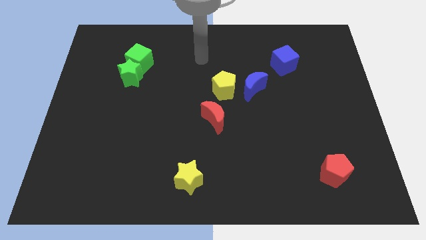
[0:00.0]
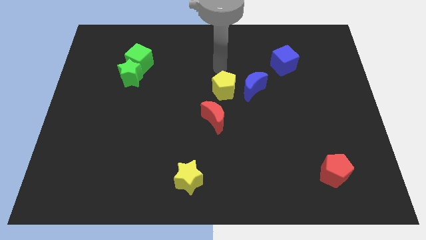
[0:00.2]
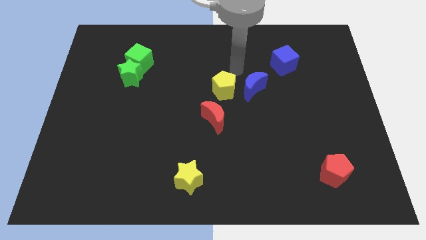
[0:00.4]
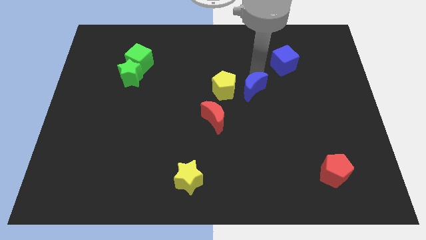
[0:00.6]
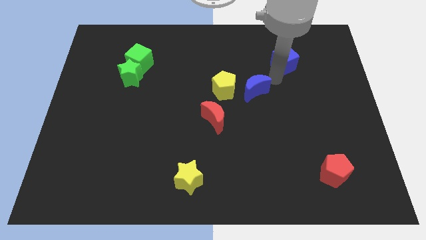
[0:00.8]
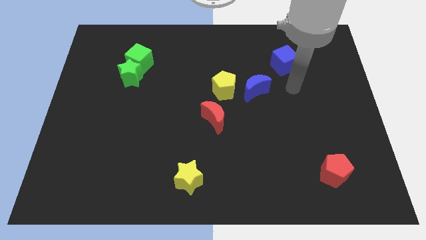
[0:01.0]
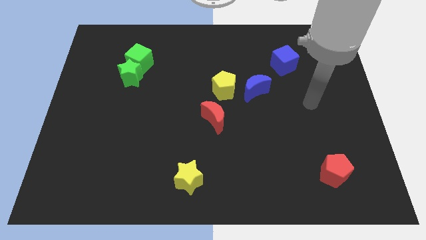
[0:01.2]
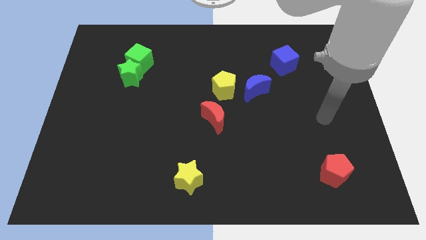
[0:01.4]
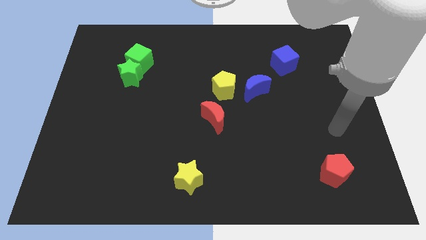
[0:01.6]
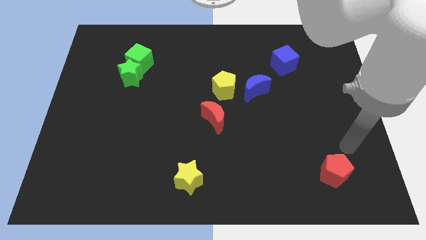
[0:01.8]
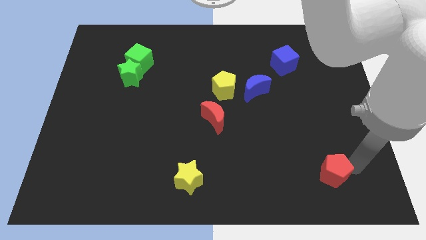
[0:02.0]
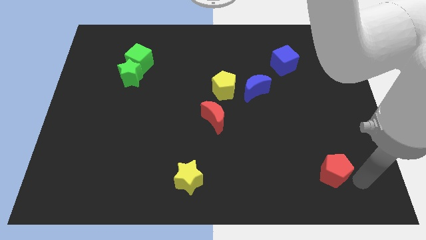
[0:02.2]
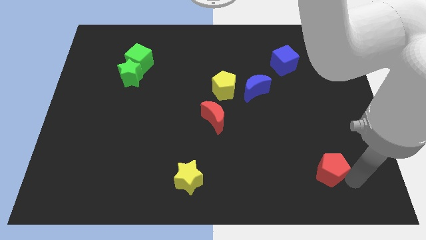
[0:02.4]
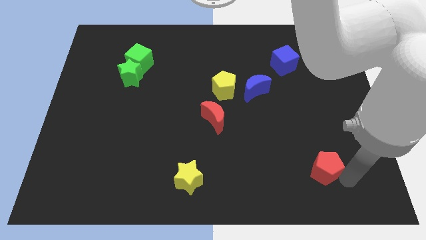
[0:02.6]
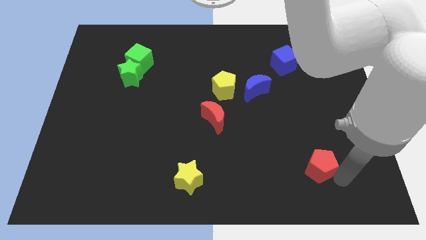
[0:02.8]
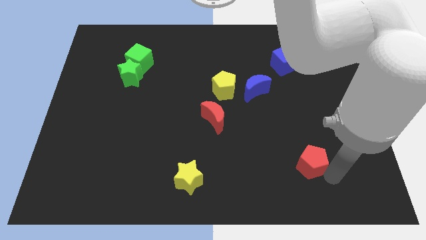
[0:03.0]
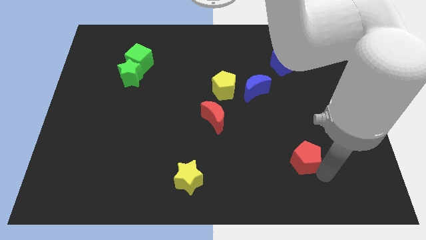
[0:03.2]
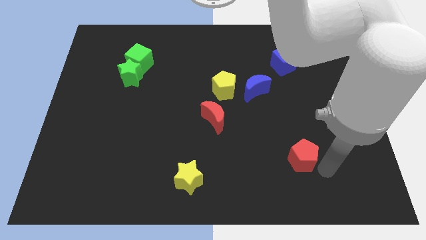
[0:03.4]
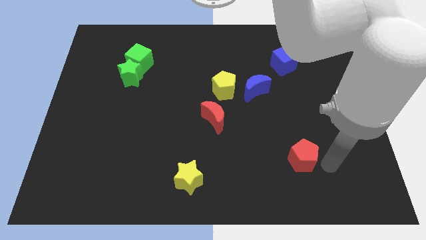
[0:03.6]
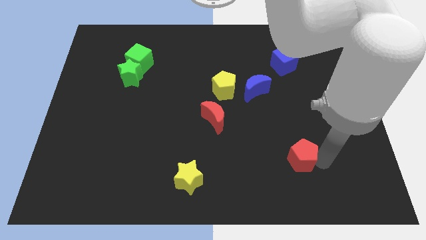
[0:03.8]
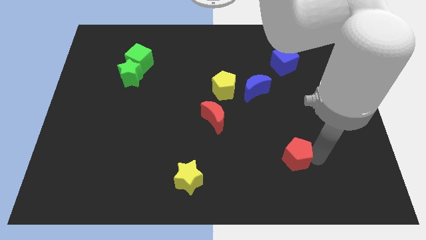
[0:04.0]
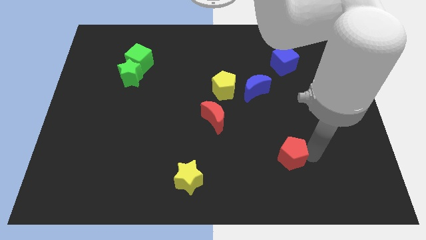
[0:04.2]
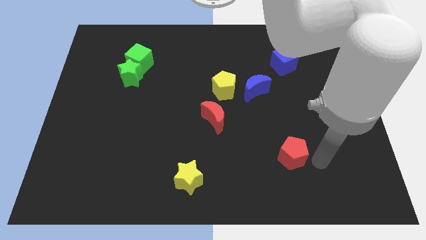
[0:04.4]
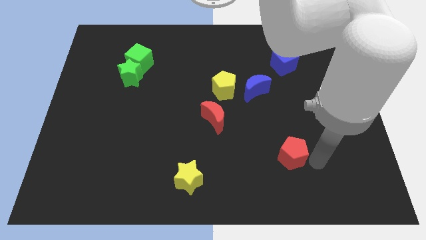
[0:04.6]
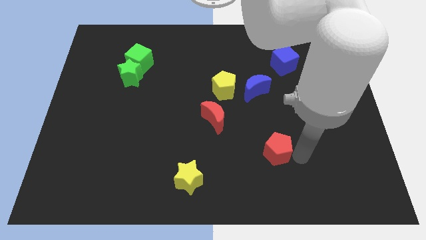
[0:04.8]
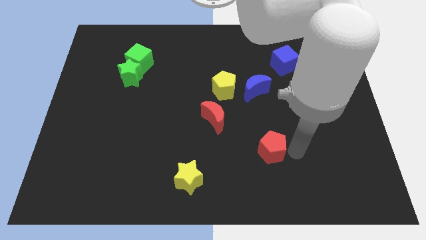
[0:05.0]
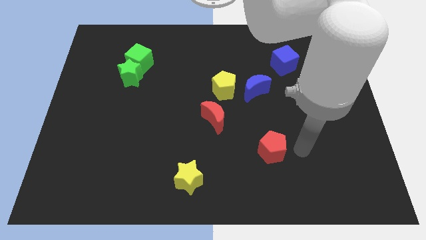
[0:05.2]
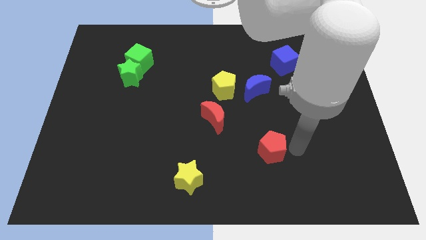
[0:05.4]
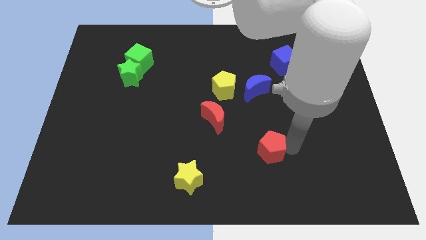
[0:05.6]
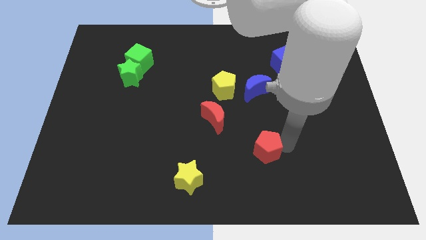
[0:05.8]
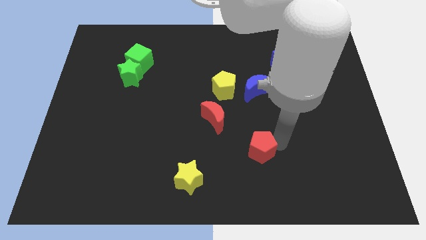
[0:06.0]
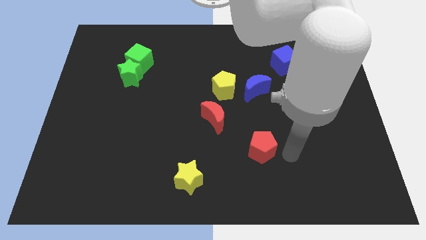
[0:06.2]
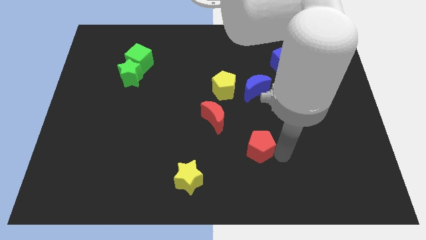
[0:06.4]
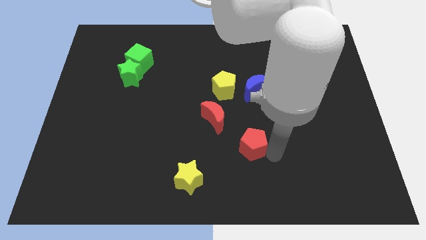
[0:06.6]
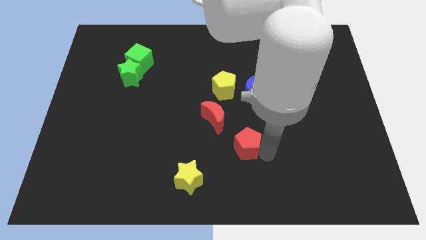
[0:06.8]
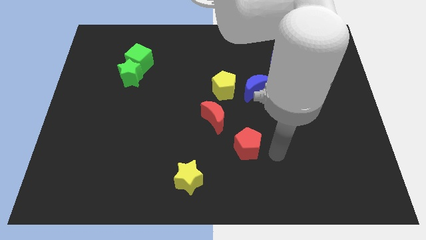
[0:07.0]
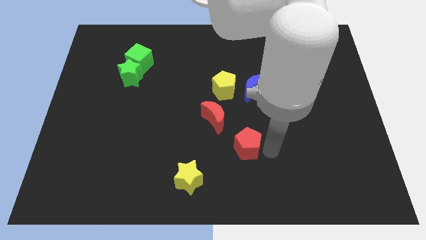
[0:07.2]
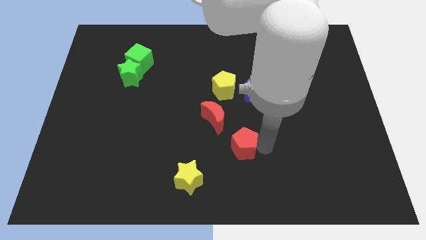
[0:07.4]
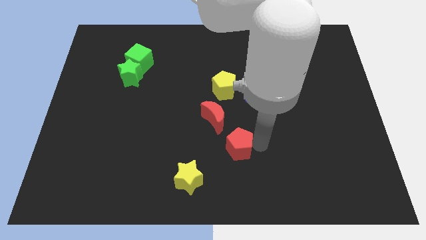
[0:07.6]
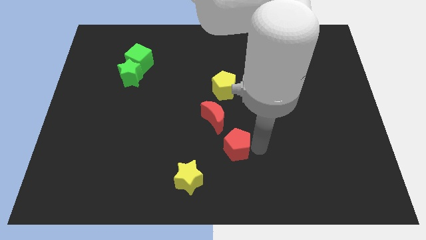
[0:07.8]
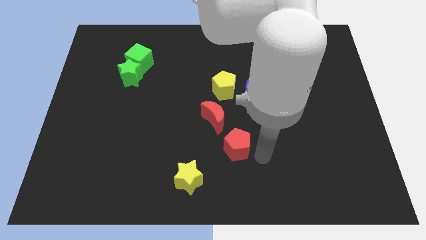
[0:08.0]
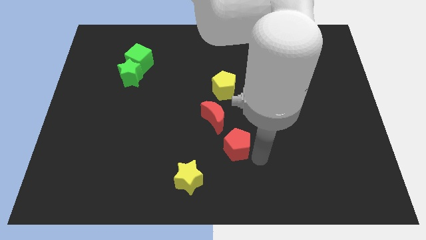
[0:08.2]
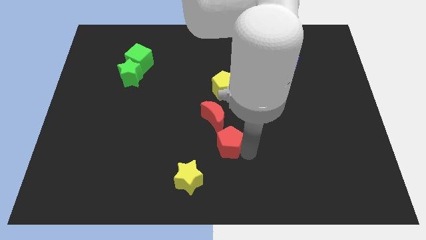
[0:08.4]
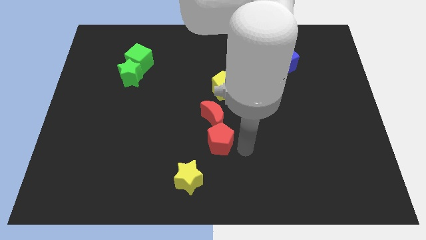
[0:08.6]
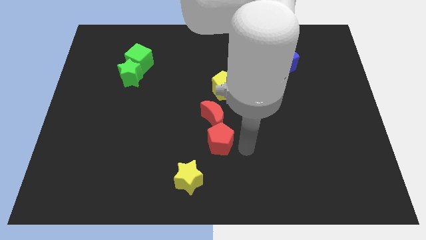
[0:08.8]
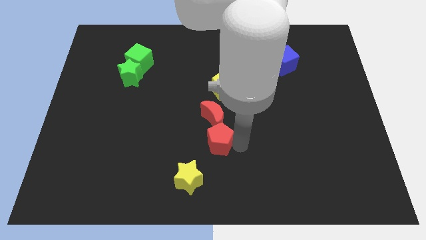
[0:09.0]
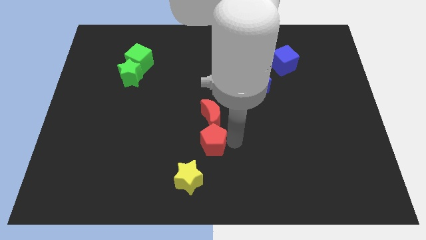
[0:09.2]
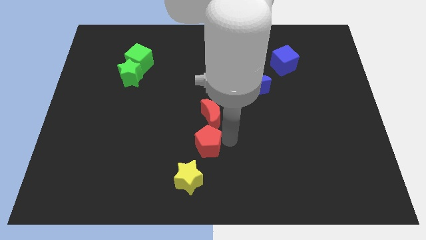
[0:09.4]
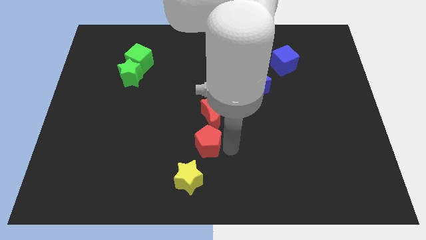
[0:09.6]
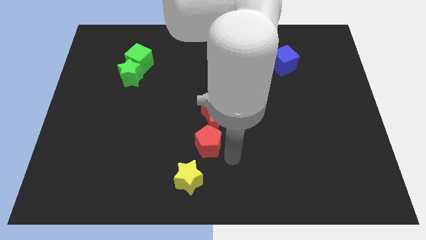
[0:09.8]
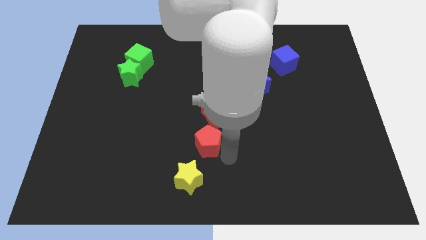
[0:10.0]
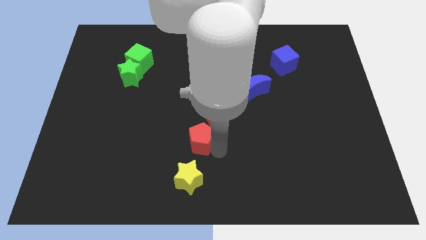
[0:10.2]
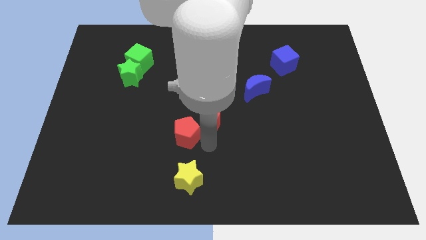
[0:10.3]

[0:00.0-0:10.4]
put the red pentagon just left of the red moon

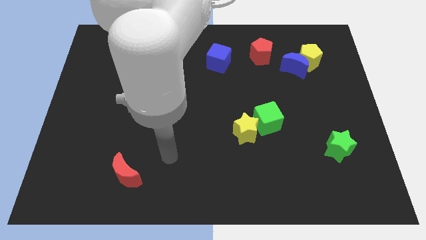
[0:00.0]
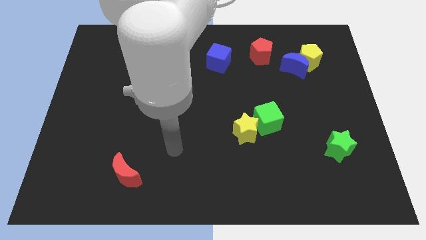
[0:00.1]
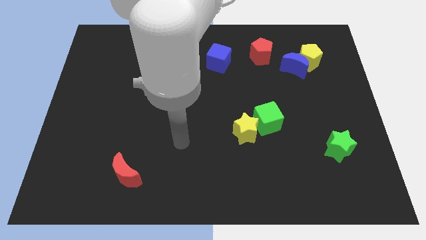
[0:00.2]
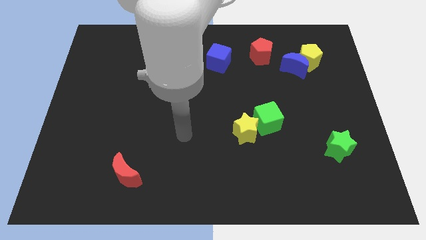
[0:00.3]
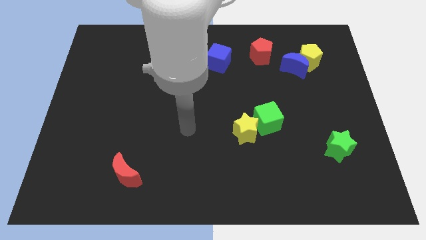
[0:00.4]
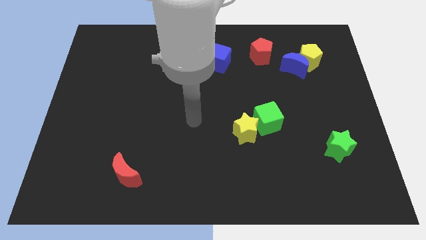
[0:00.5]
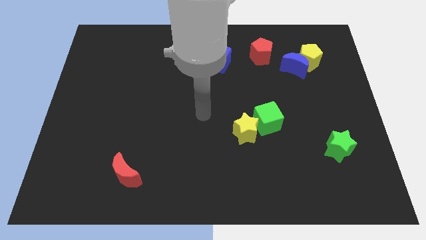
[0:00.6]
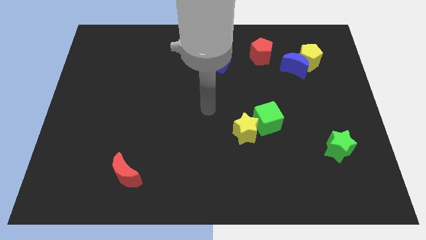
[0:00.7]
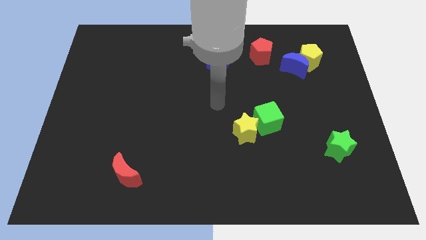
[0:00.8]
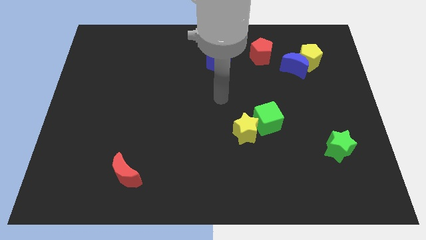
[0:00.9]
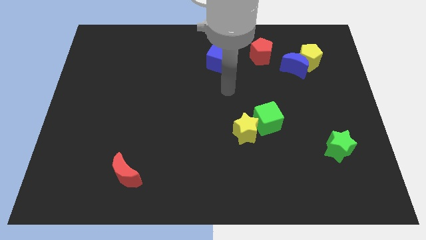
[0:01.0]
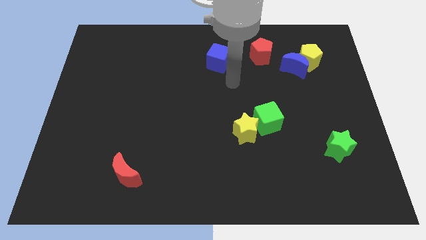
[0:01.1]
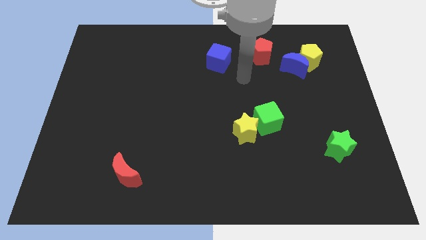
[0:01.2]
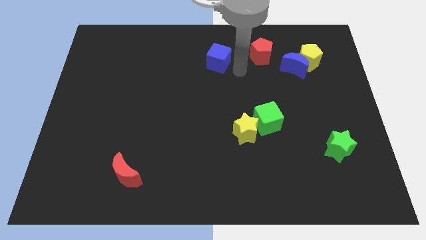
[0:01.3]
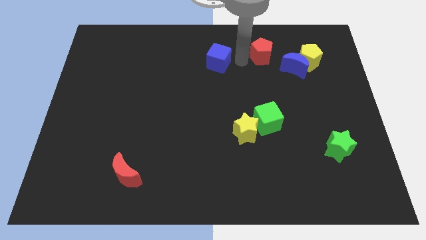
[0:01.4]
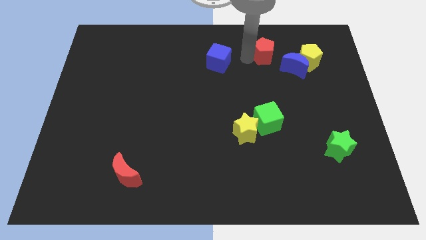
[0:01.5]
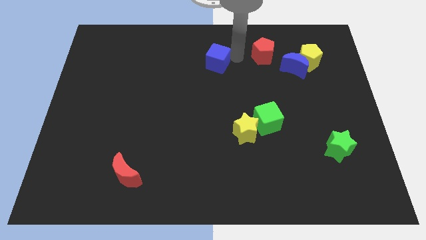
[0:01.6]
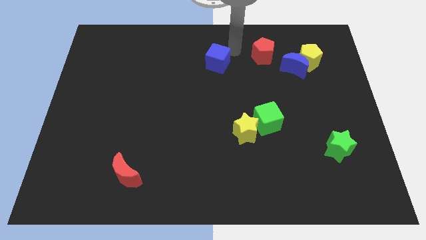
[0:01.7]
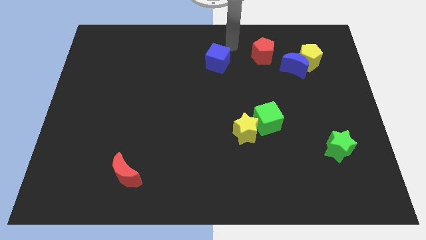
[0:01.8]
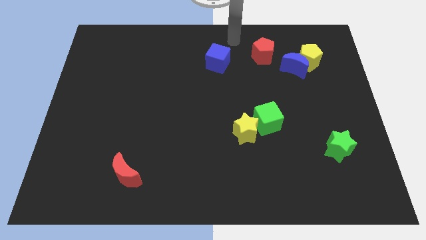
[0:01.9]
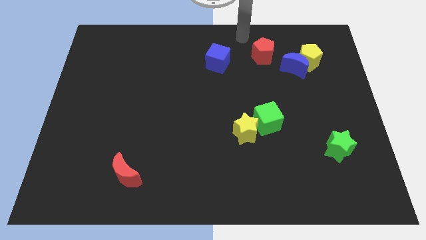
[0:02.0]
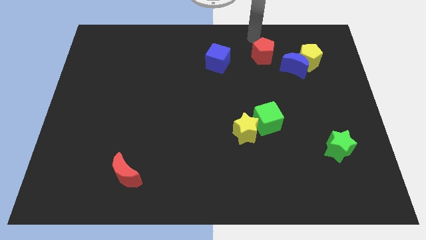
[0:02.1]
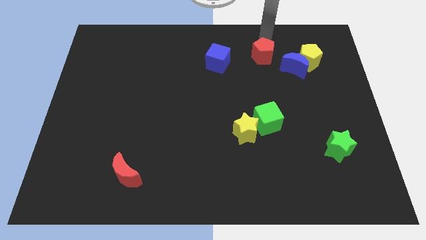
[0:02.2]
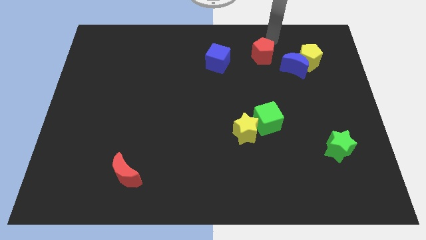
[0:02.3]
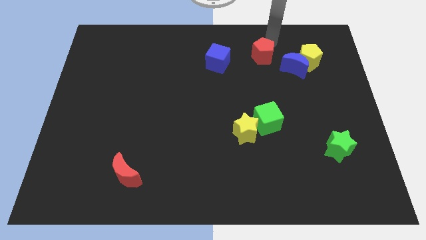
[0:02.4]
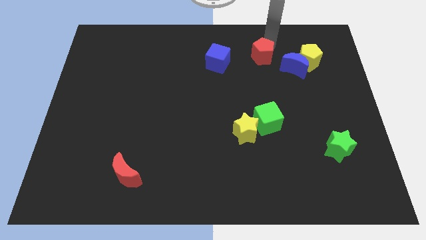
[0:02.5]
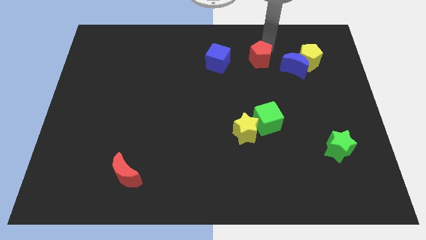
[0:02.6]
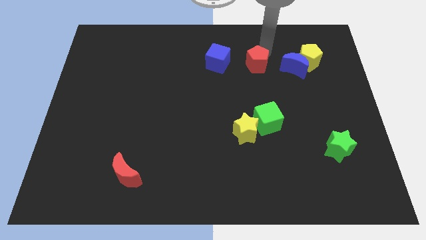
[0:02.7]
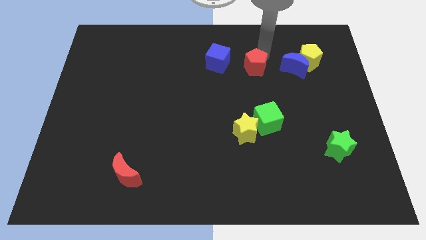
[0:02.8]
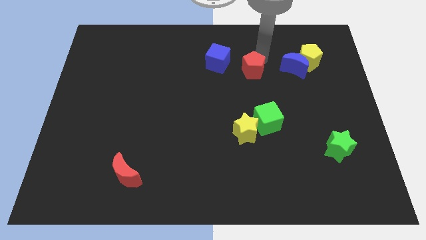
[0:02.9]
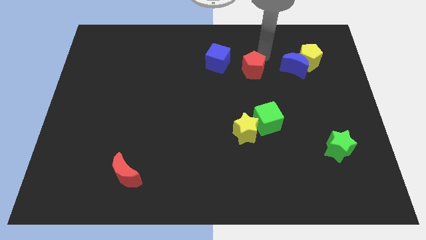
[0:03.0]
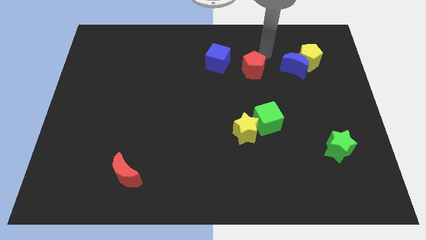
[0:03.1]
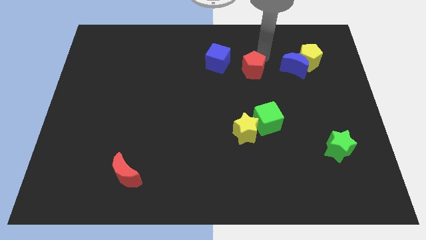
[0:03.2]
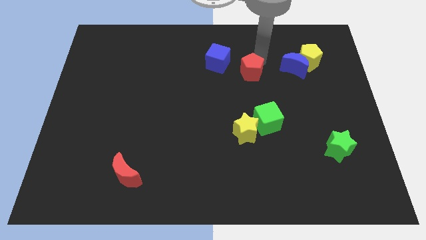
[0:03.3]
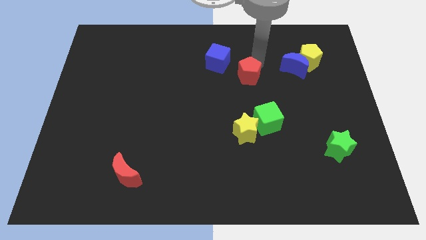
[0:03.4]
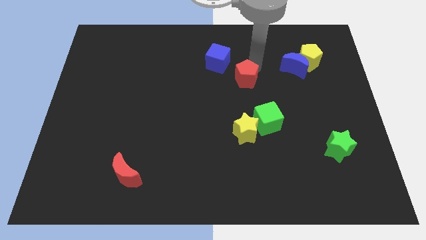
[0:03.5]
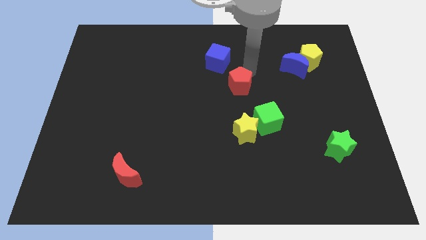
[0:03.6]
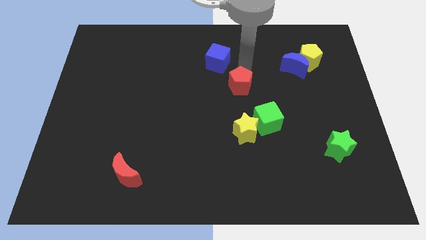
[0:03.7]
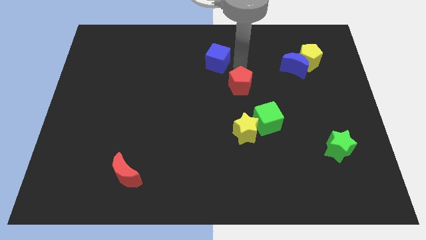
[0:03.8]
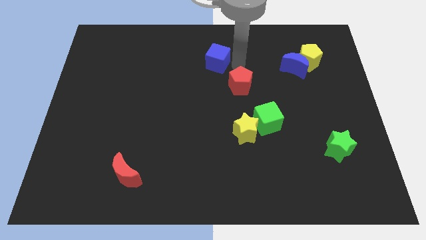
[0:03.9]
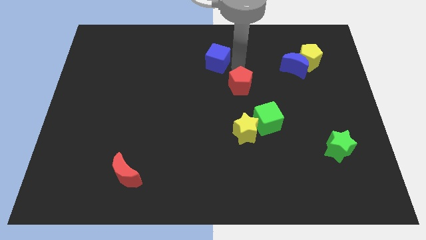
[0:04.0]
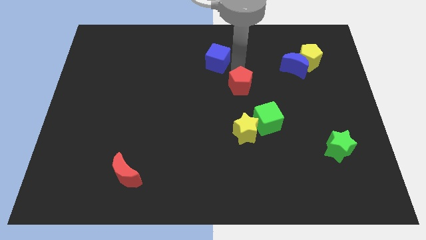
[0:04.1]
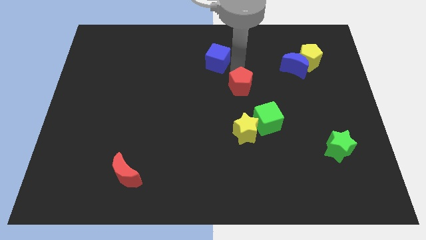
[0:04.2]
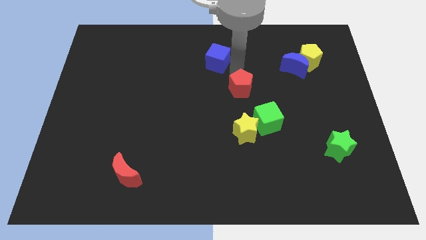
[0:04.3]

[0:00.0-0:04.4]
put the red pentagon to the top left of the green cube
